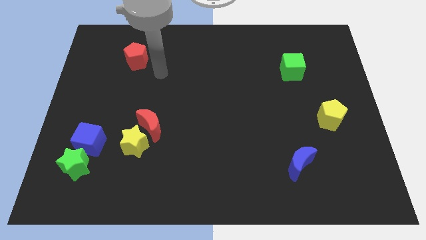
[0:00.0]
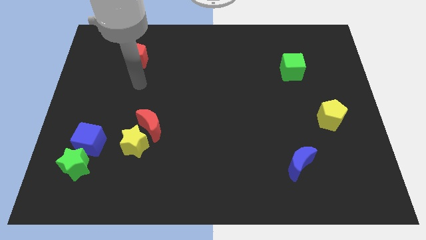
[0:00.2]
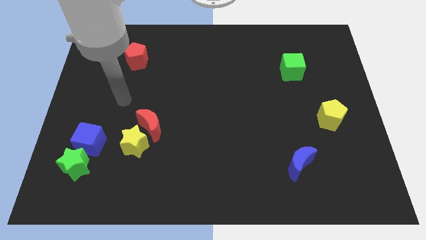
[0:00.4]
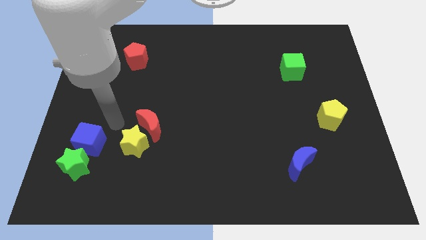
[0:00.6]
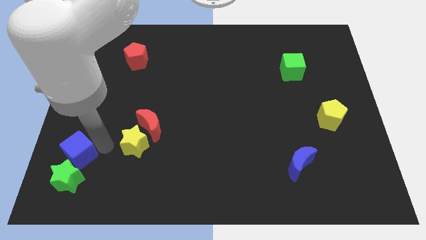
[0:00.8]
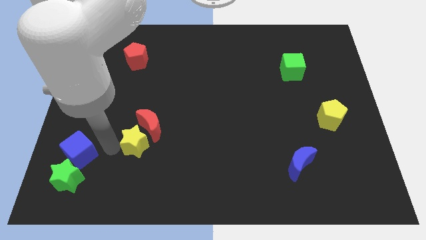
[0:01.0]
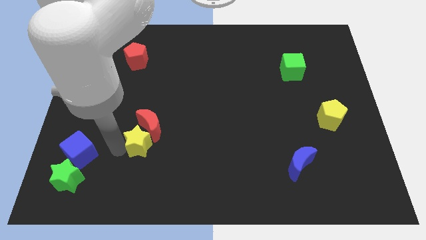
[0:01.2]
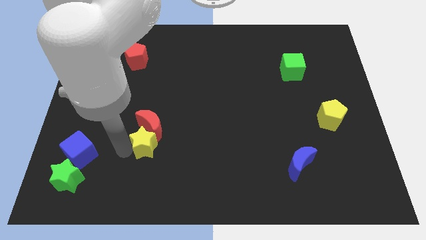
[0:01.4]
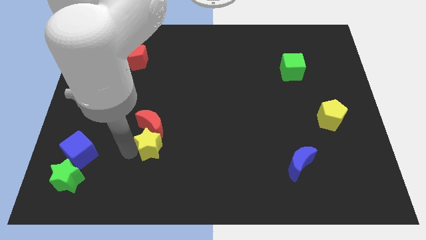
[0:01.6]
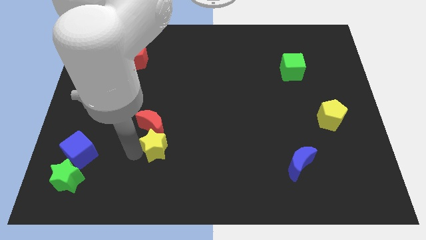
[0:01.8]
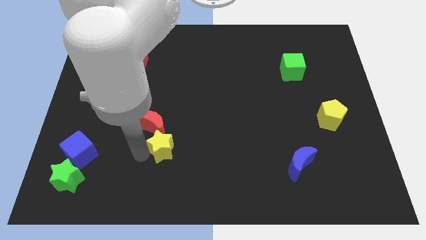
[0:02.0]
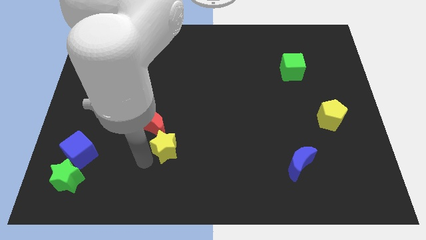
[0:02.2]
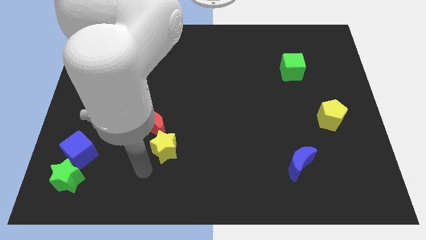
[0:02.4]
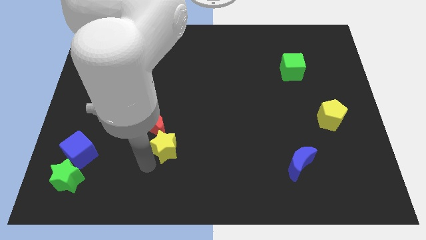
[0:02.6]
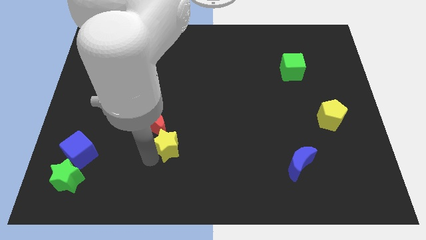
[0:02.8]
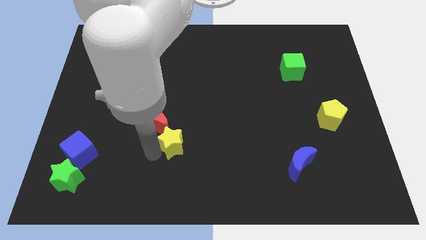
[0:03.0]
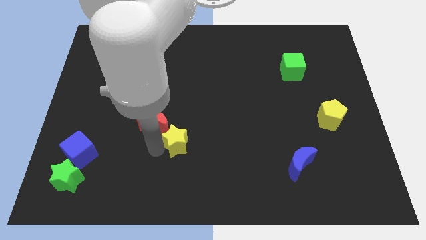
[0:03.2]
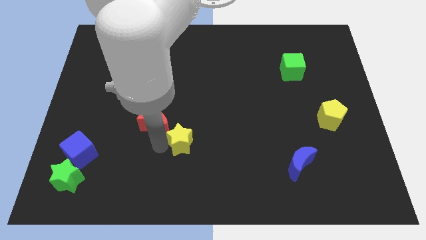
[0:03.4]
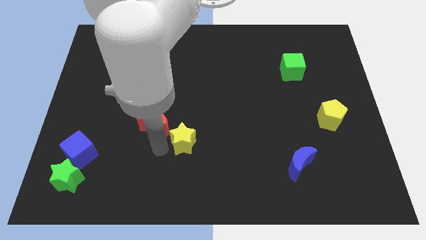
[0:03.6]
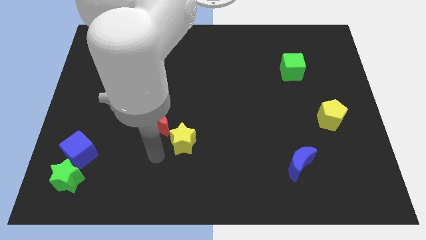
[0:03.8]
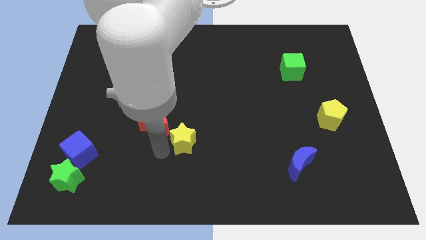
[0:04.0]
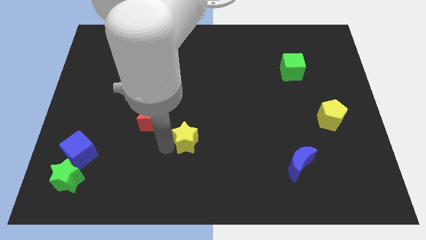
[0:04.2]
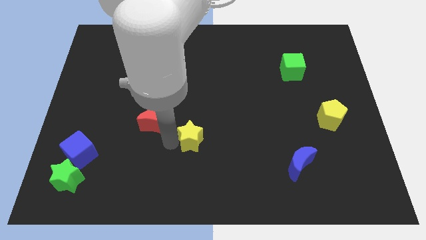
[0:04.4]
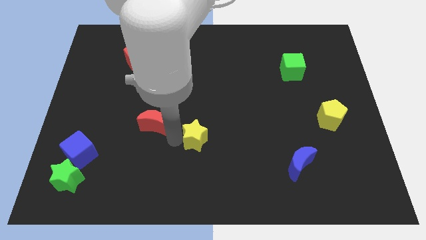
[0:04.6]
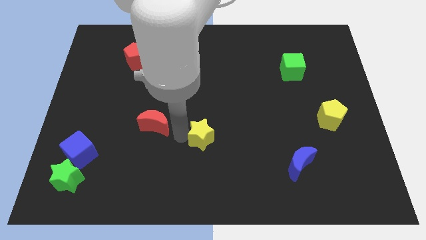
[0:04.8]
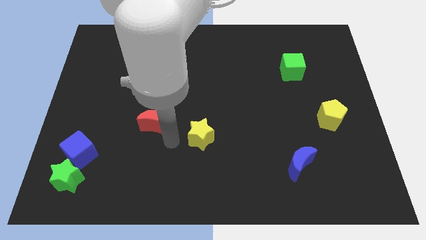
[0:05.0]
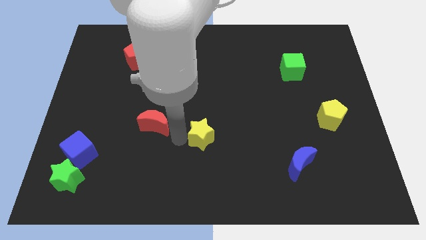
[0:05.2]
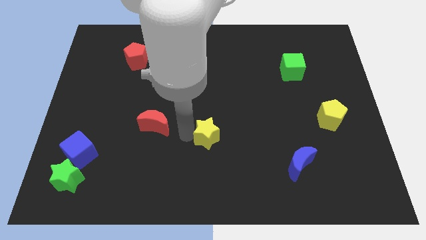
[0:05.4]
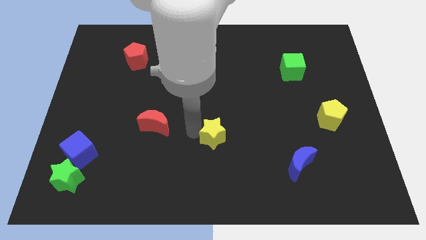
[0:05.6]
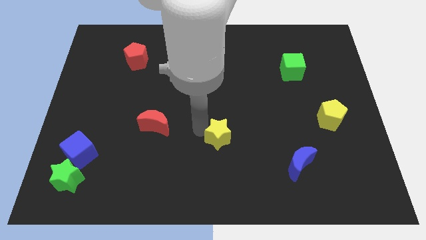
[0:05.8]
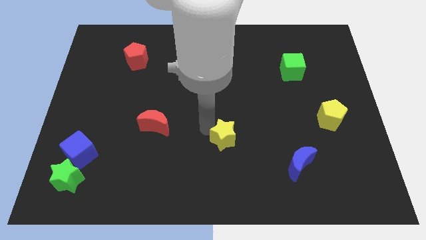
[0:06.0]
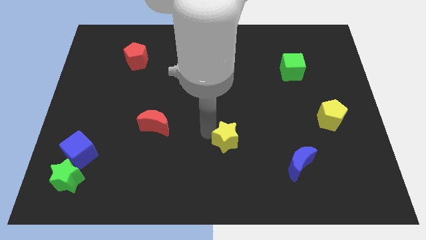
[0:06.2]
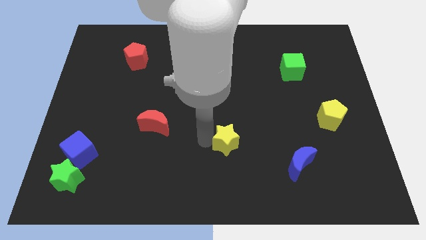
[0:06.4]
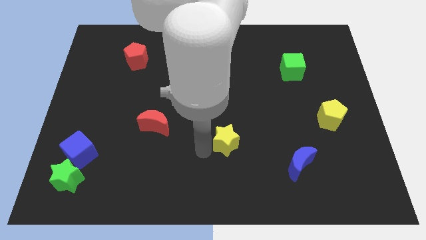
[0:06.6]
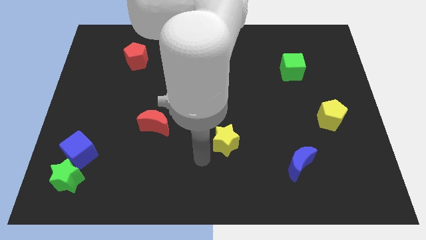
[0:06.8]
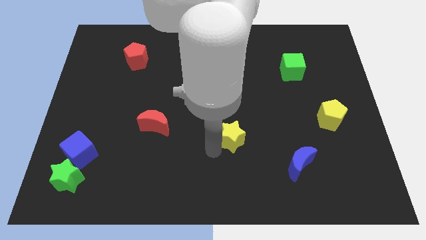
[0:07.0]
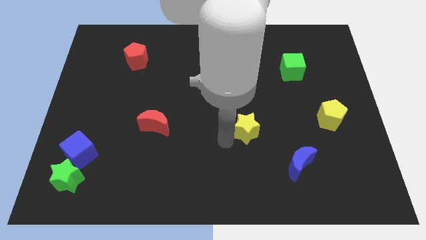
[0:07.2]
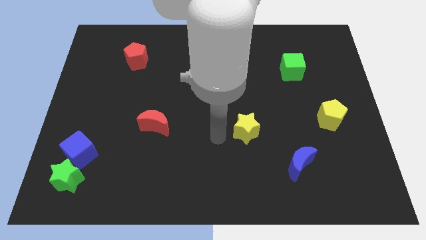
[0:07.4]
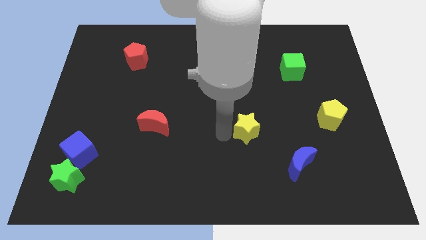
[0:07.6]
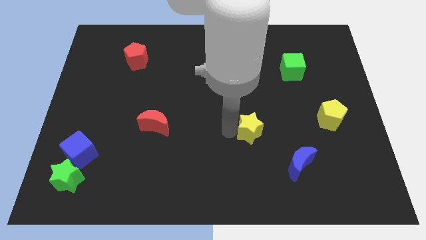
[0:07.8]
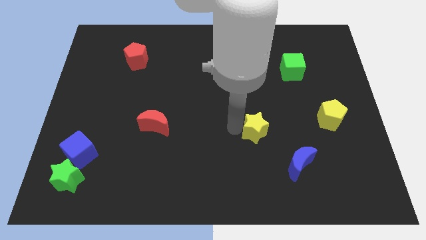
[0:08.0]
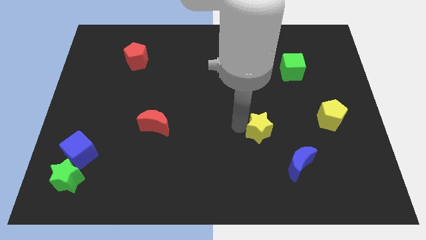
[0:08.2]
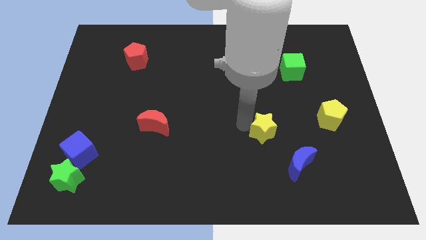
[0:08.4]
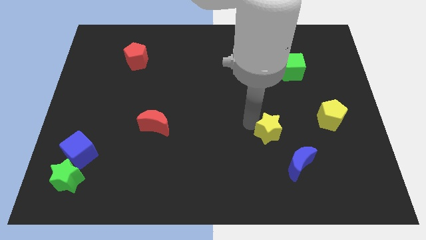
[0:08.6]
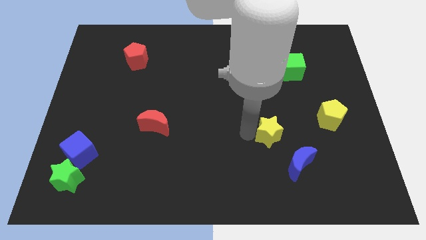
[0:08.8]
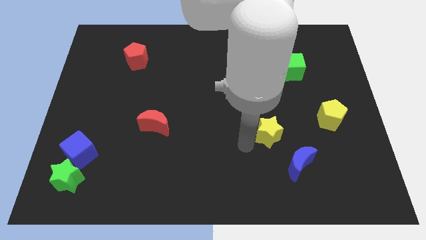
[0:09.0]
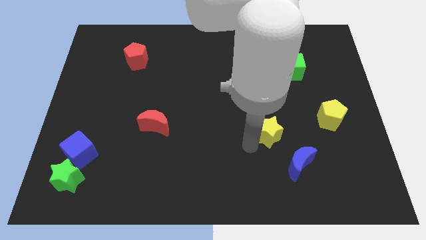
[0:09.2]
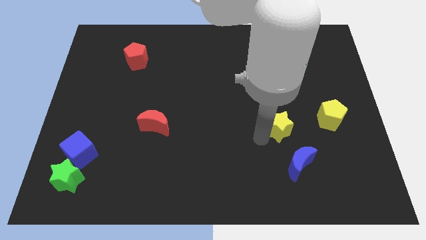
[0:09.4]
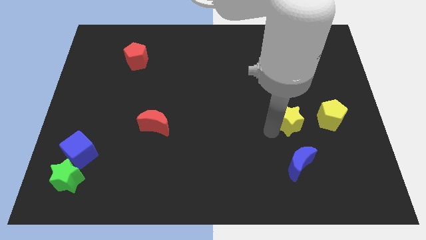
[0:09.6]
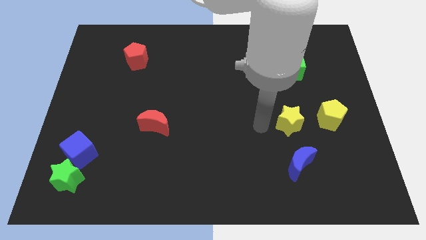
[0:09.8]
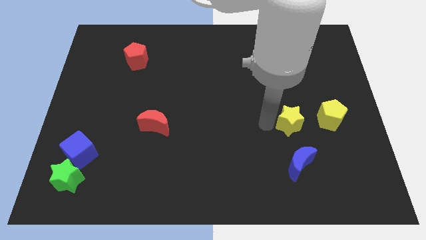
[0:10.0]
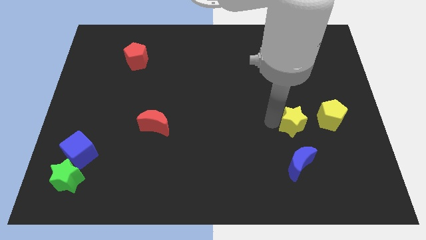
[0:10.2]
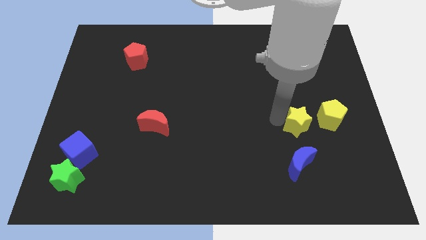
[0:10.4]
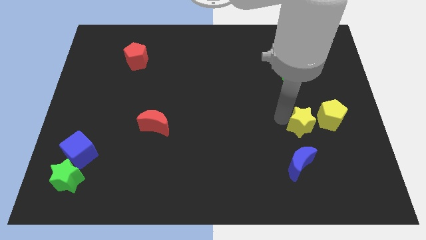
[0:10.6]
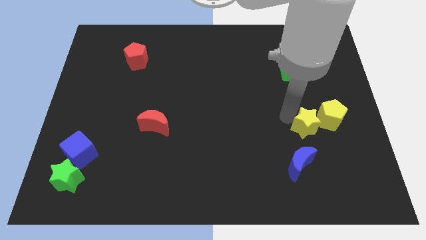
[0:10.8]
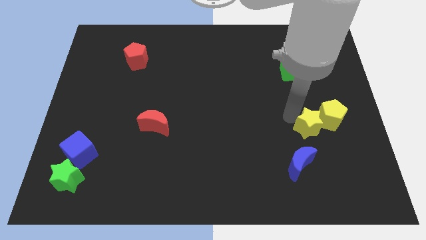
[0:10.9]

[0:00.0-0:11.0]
slide the yellow star close to the yellow pentagon

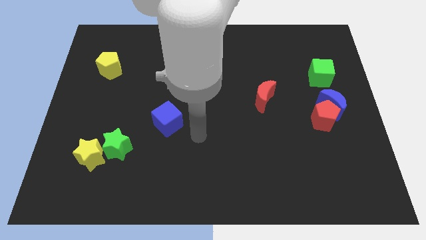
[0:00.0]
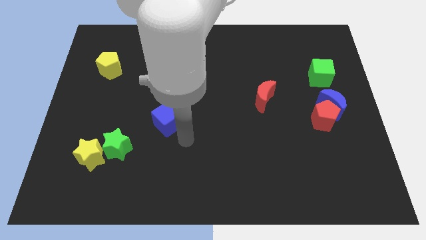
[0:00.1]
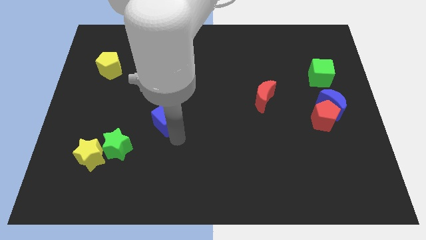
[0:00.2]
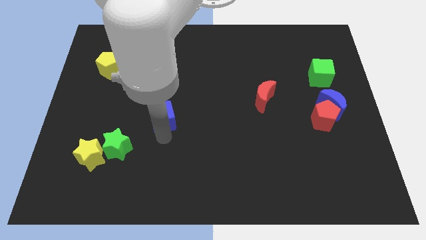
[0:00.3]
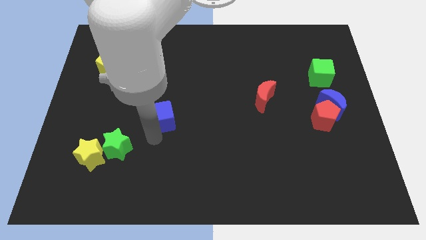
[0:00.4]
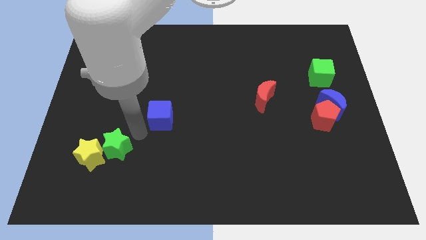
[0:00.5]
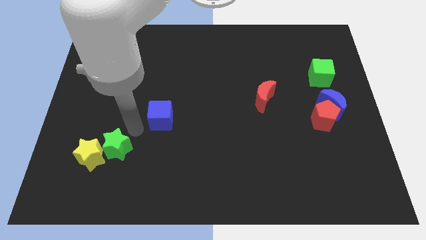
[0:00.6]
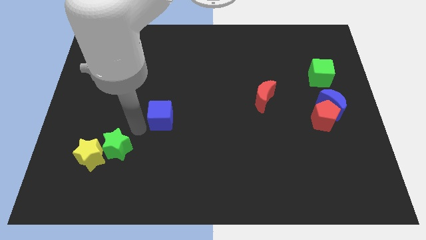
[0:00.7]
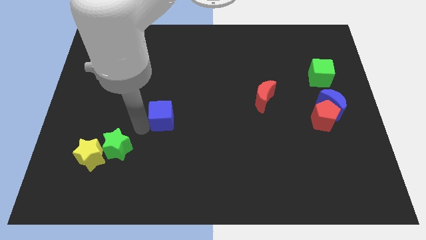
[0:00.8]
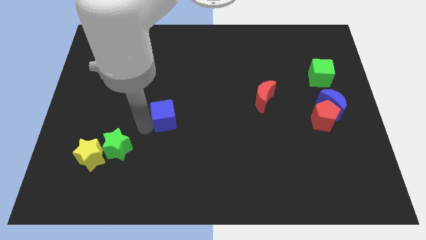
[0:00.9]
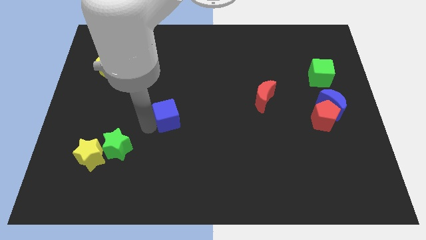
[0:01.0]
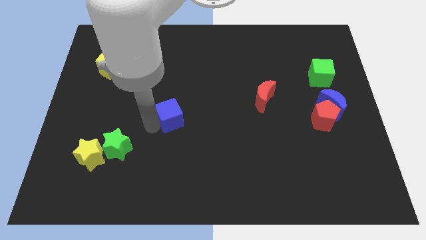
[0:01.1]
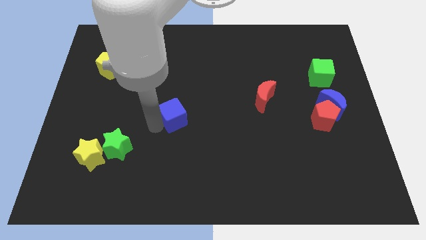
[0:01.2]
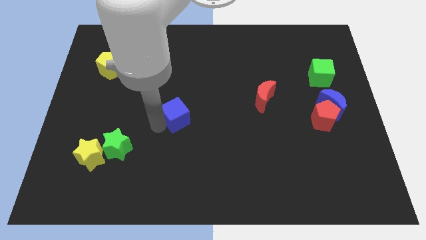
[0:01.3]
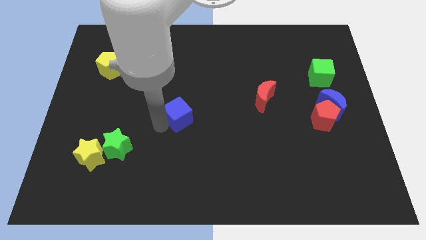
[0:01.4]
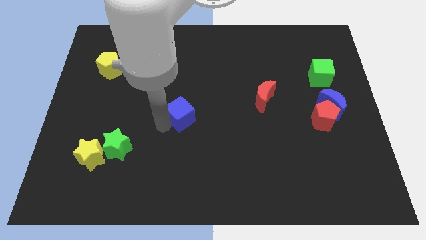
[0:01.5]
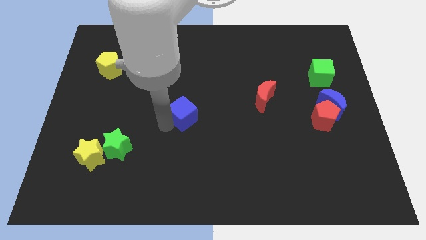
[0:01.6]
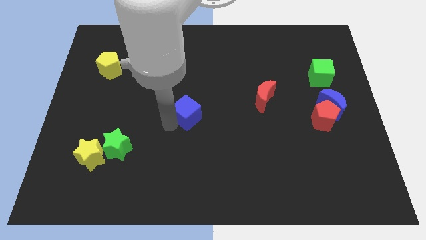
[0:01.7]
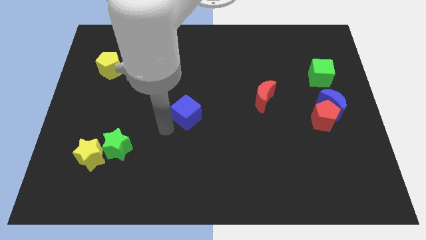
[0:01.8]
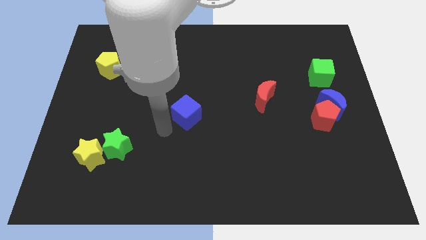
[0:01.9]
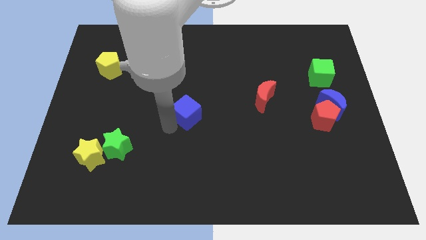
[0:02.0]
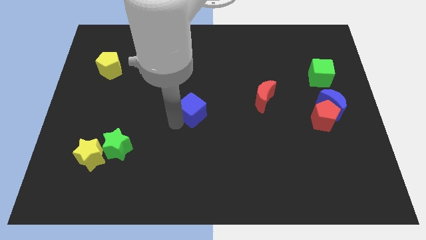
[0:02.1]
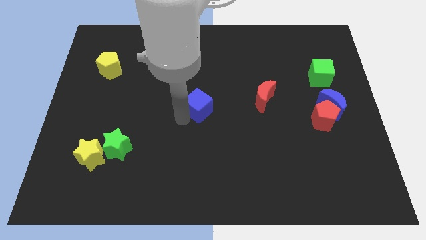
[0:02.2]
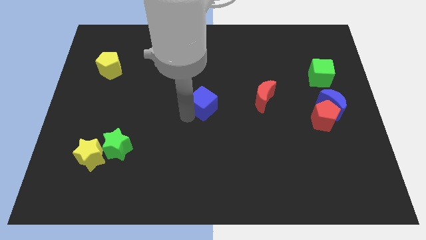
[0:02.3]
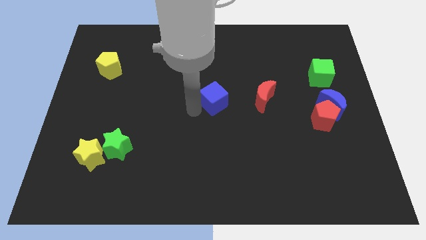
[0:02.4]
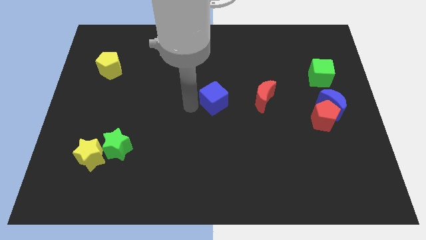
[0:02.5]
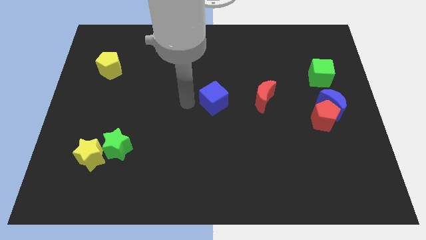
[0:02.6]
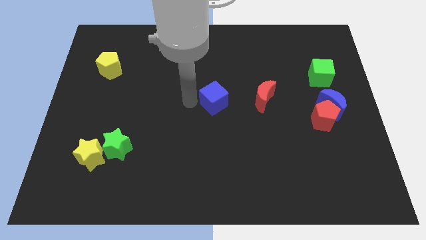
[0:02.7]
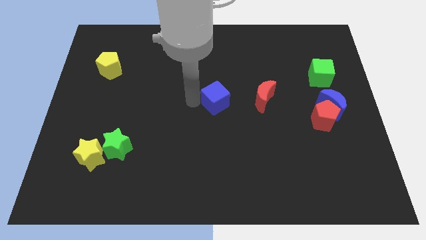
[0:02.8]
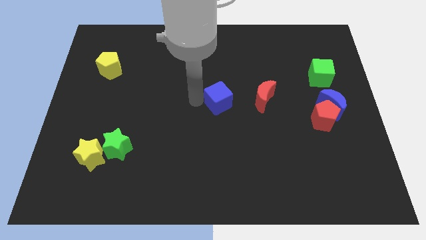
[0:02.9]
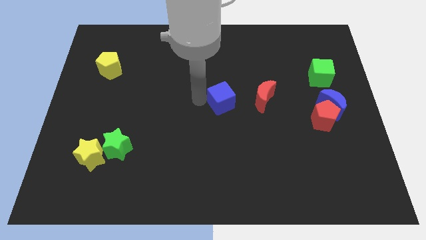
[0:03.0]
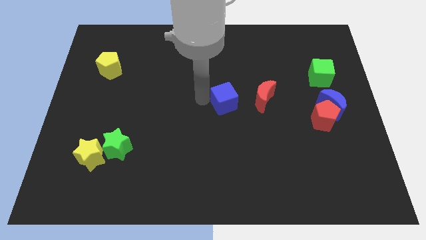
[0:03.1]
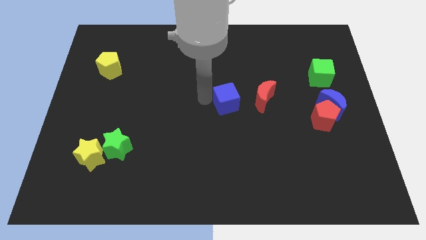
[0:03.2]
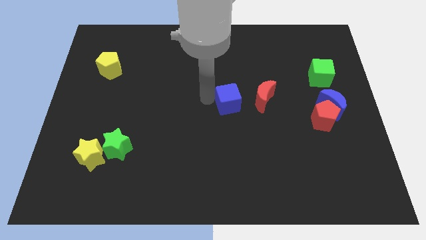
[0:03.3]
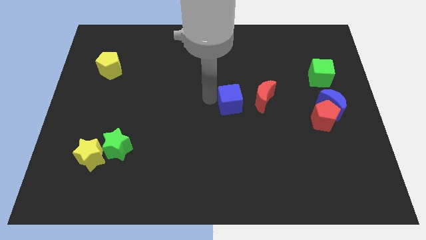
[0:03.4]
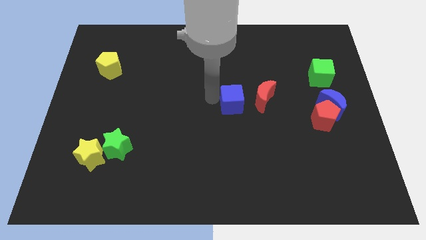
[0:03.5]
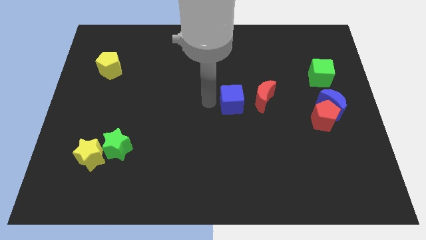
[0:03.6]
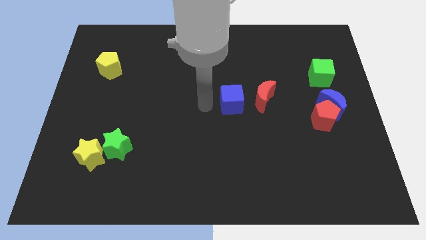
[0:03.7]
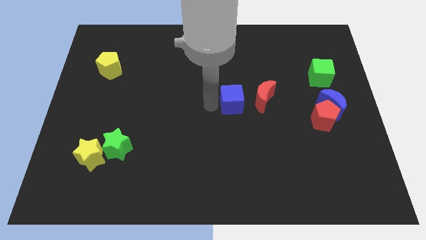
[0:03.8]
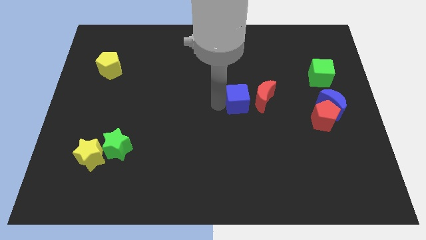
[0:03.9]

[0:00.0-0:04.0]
move the blue cube close to the red moon
